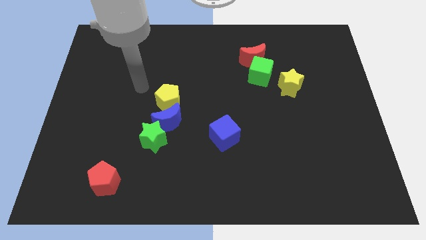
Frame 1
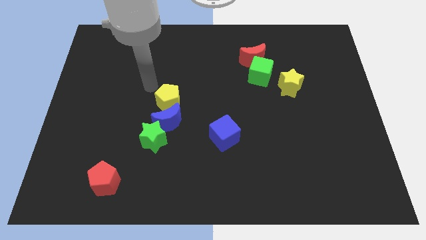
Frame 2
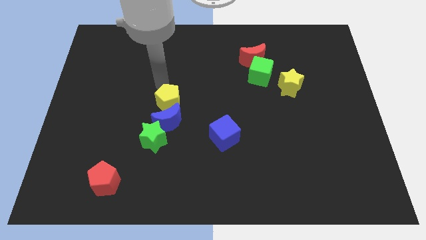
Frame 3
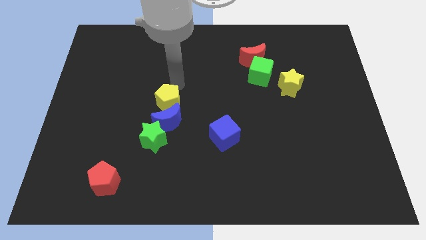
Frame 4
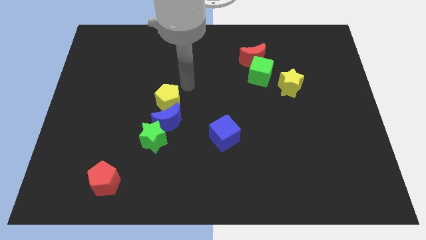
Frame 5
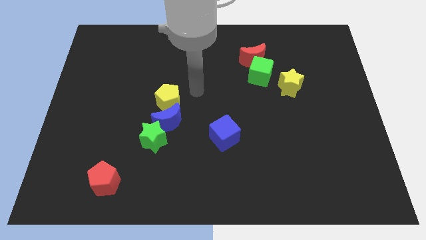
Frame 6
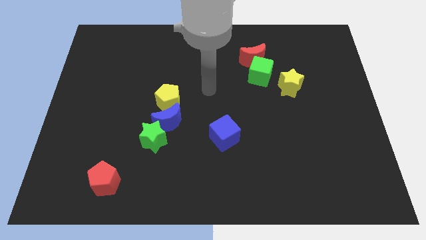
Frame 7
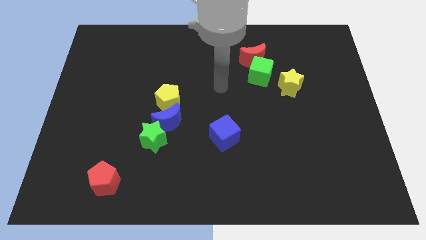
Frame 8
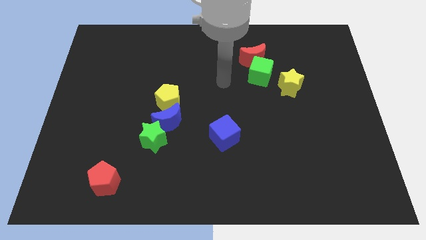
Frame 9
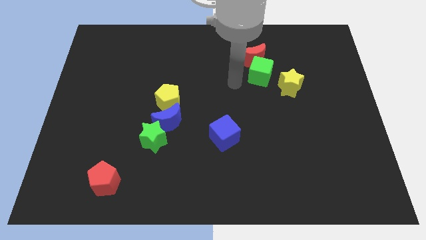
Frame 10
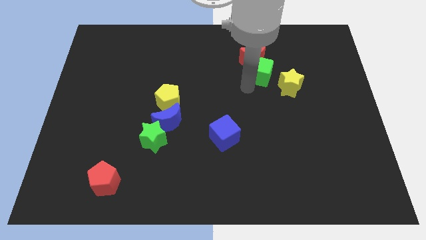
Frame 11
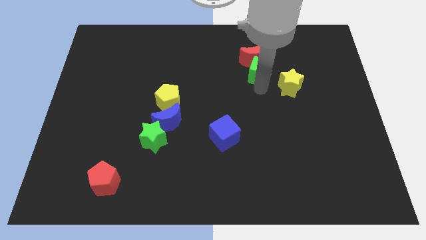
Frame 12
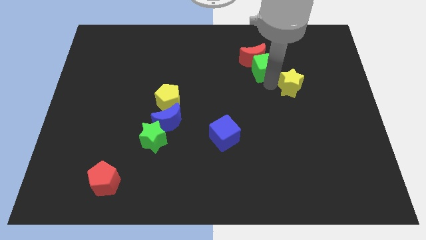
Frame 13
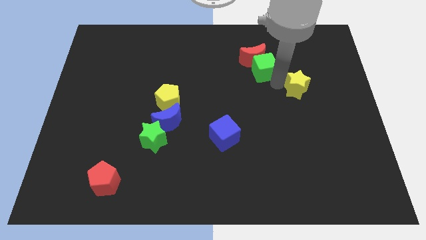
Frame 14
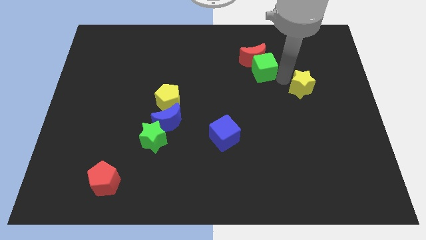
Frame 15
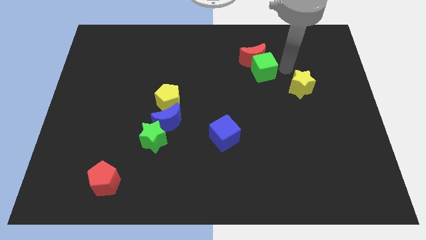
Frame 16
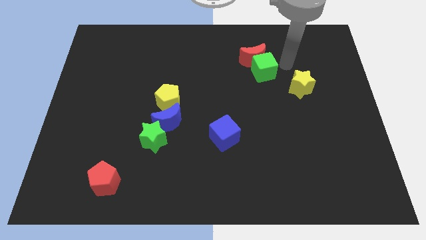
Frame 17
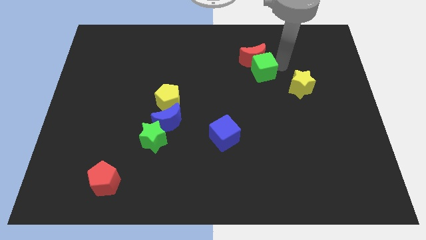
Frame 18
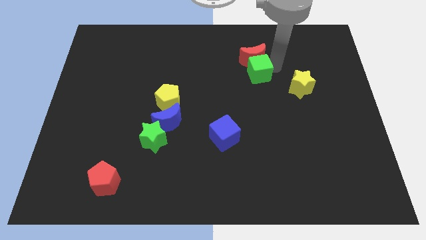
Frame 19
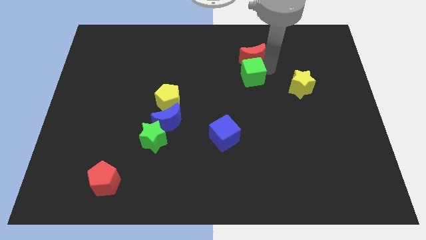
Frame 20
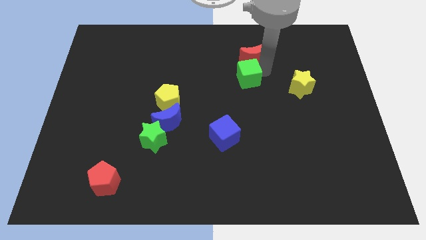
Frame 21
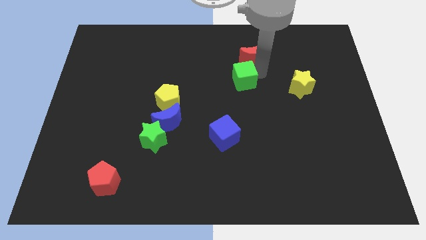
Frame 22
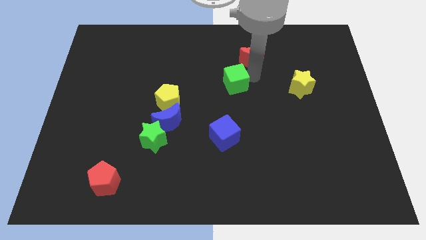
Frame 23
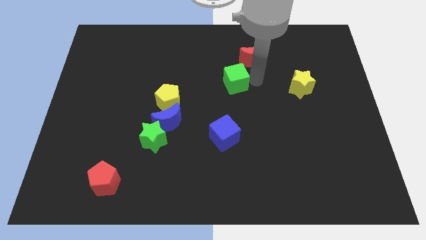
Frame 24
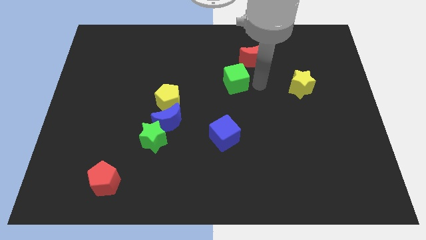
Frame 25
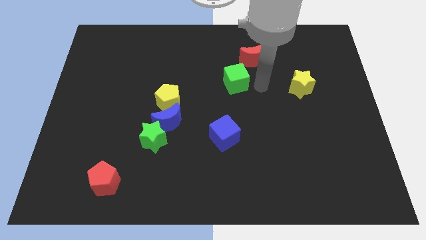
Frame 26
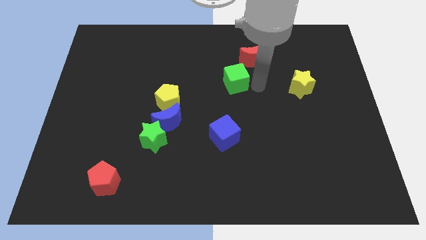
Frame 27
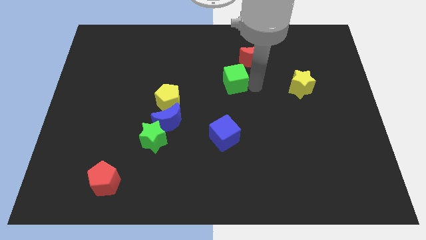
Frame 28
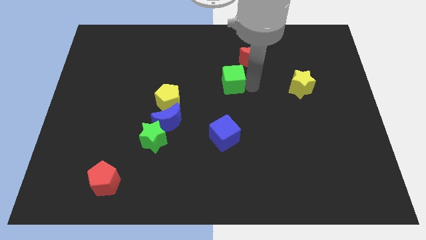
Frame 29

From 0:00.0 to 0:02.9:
push the green cube slightly left

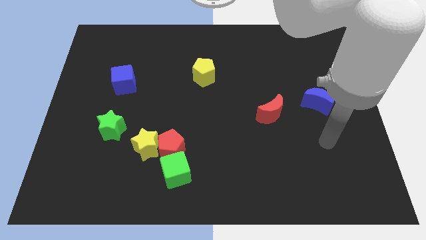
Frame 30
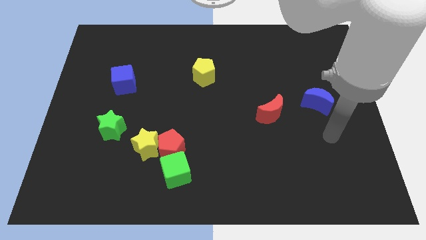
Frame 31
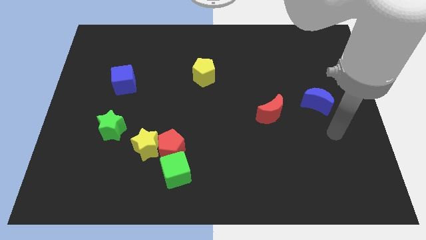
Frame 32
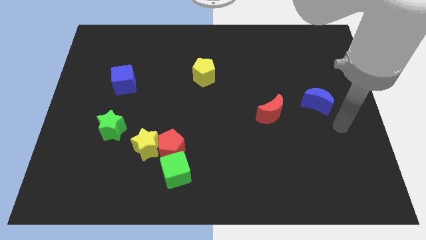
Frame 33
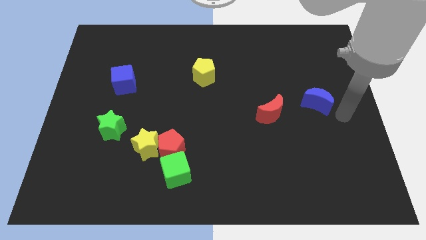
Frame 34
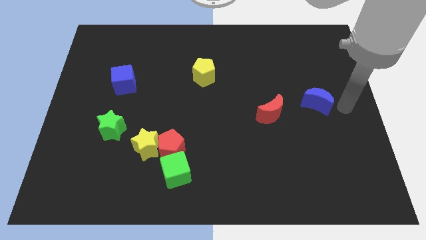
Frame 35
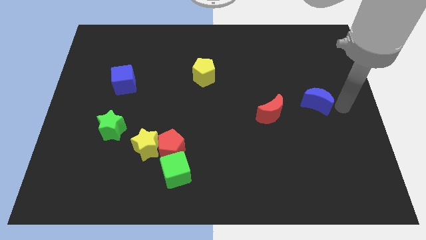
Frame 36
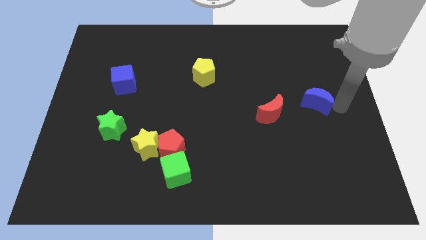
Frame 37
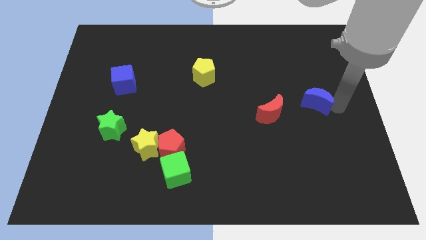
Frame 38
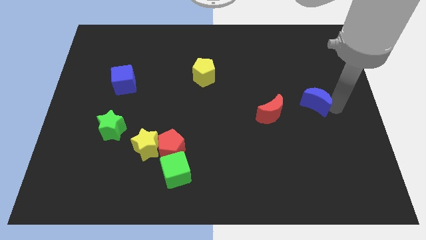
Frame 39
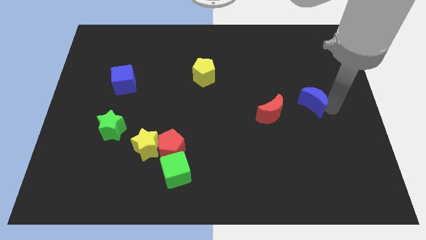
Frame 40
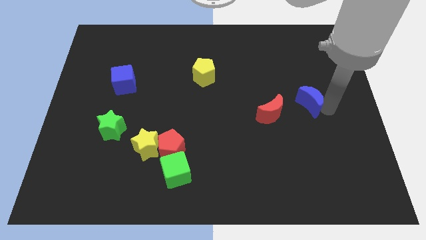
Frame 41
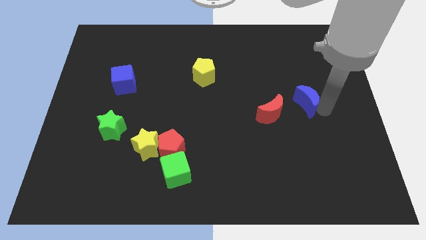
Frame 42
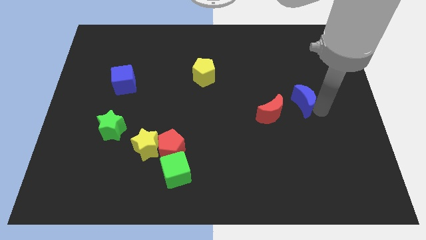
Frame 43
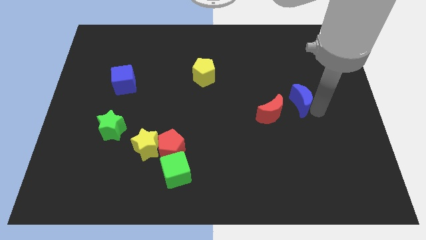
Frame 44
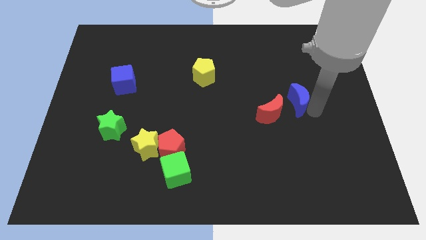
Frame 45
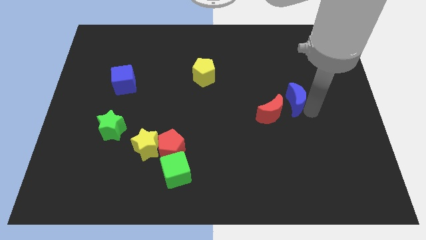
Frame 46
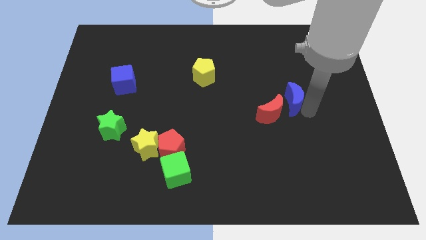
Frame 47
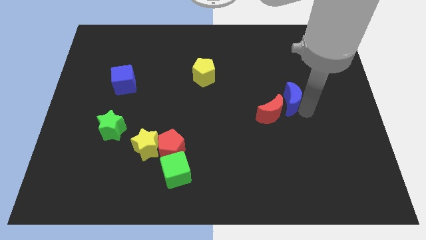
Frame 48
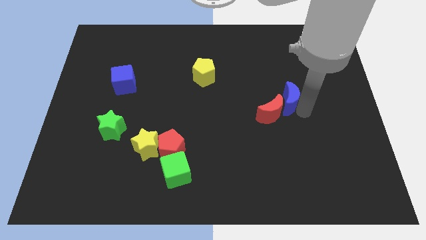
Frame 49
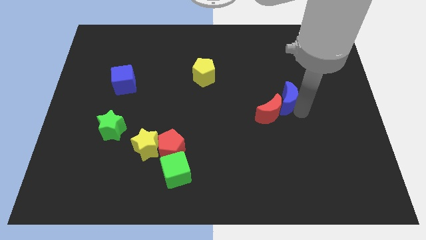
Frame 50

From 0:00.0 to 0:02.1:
move the blue moon a bit to the left

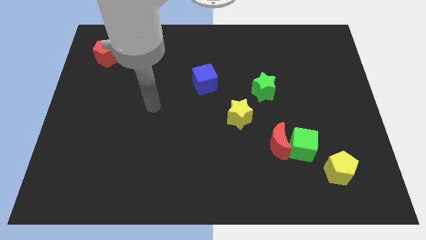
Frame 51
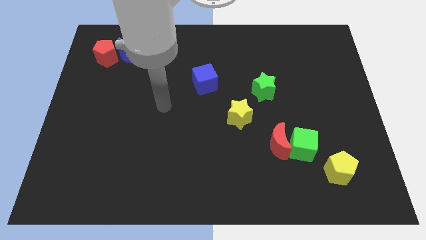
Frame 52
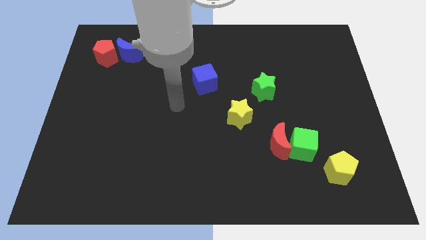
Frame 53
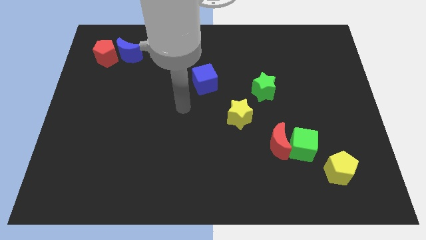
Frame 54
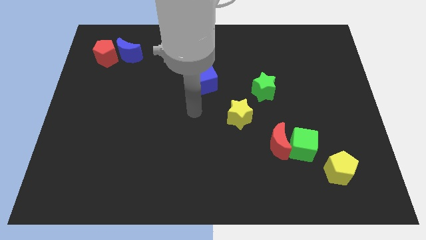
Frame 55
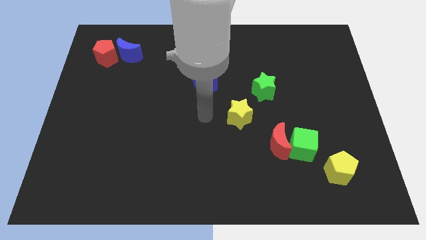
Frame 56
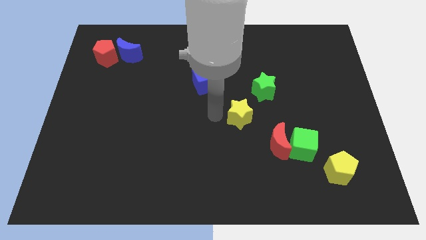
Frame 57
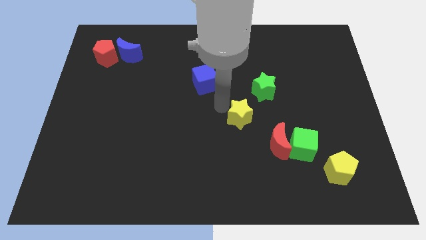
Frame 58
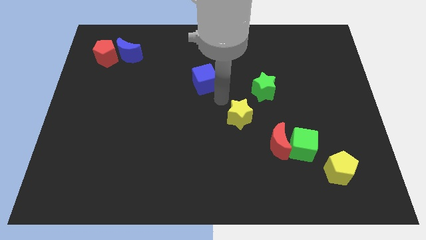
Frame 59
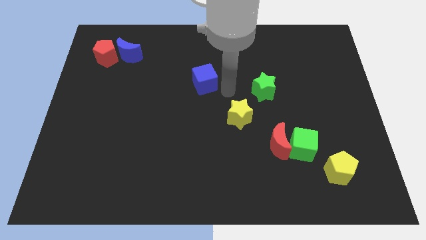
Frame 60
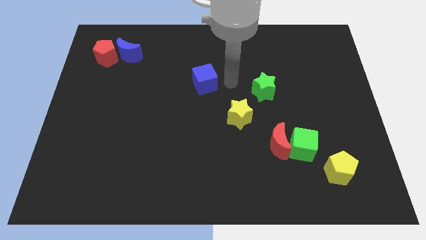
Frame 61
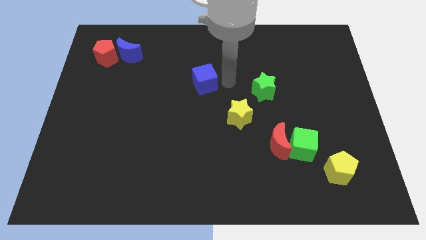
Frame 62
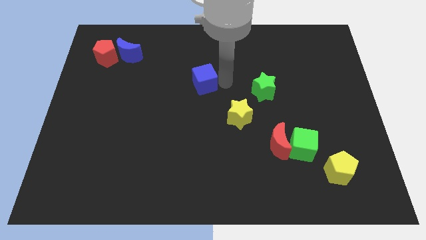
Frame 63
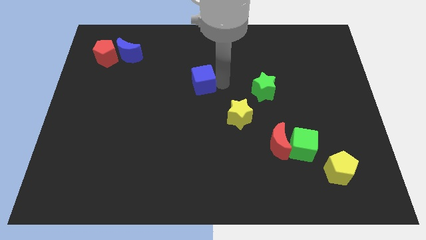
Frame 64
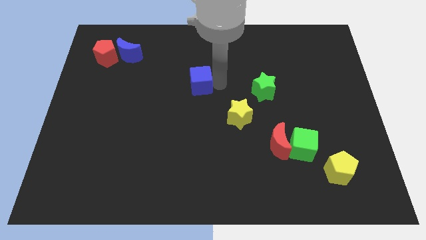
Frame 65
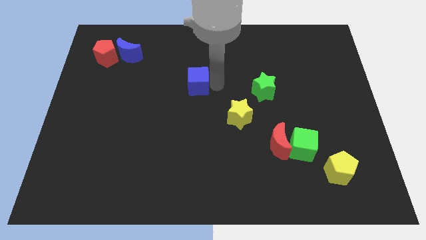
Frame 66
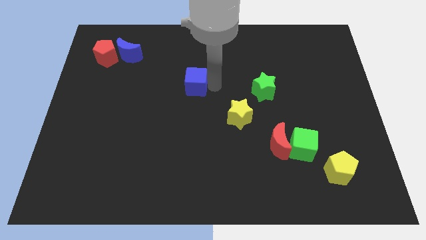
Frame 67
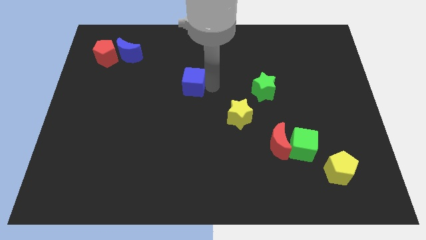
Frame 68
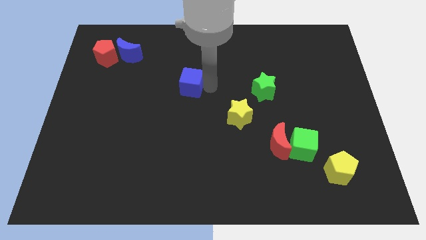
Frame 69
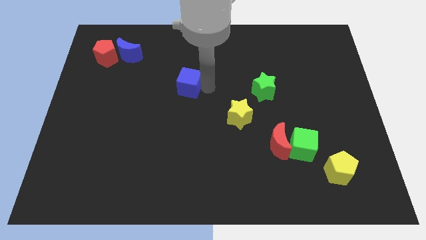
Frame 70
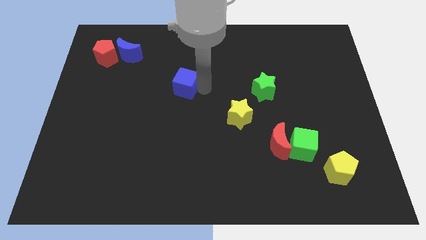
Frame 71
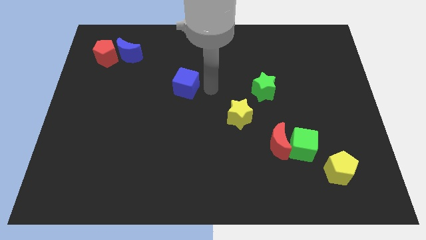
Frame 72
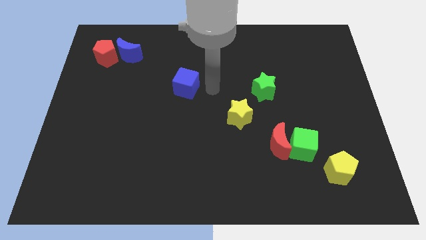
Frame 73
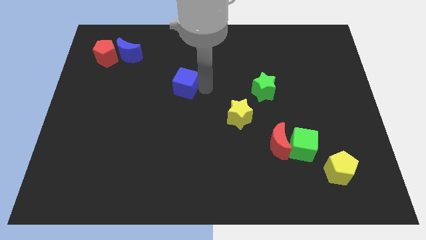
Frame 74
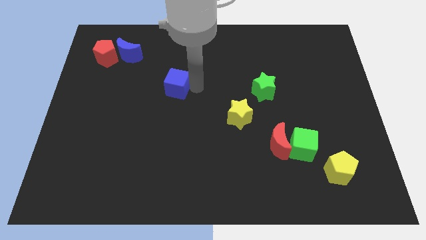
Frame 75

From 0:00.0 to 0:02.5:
move the blue cube a bit left

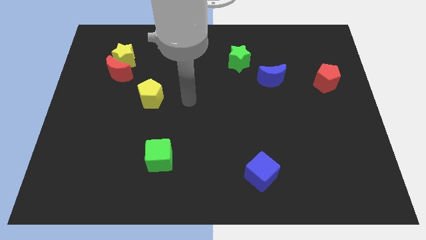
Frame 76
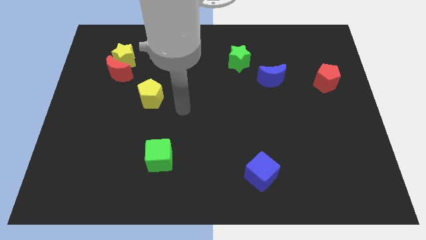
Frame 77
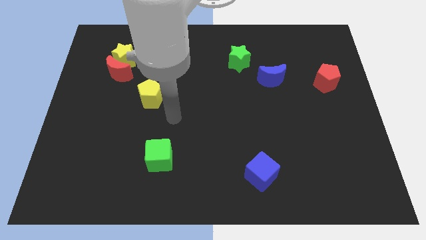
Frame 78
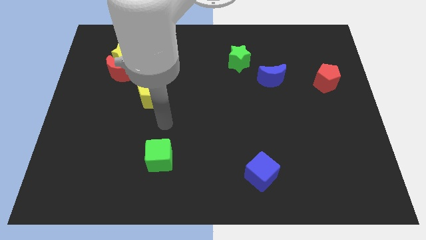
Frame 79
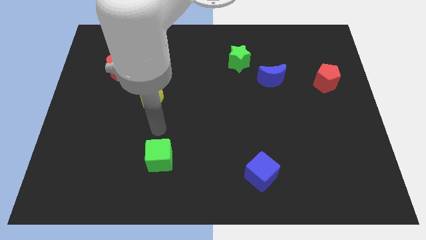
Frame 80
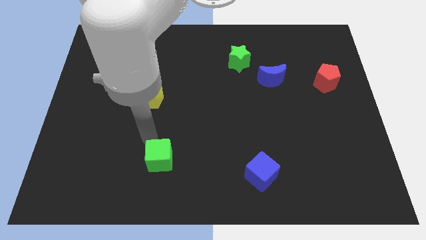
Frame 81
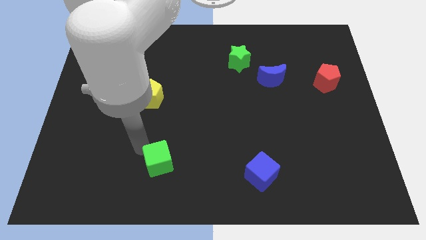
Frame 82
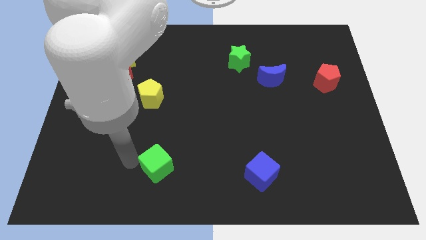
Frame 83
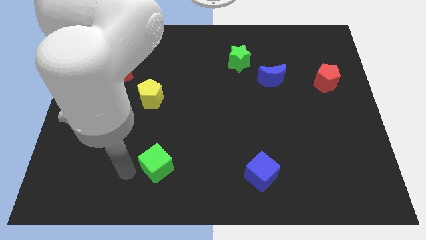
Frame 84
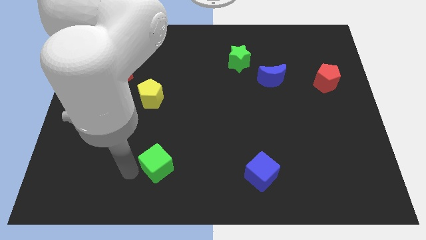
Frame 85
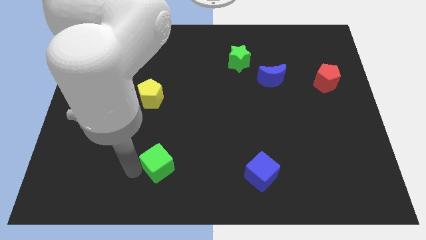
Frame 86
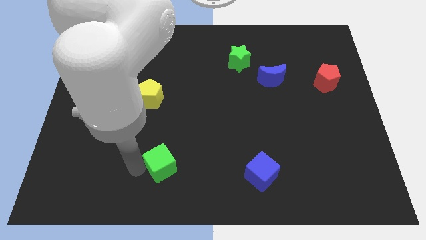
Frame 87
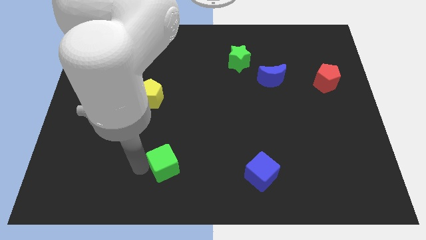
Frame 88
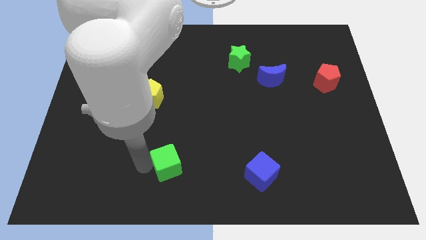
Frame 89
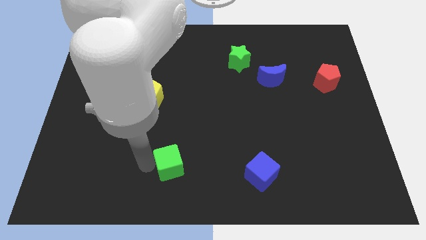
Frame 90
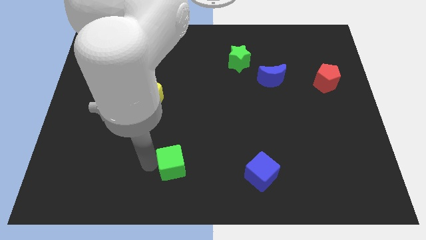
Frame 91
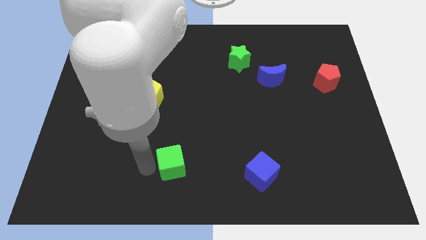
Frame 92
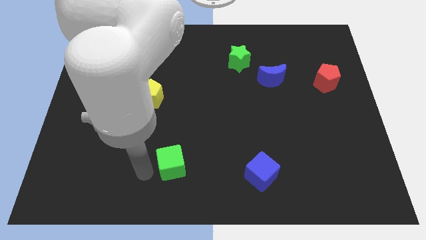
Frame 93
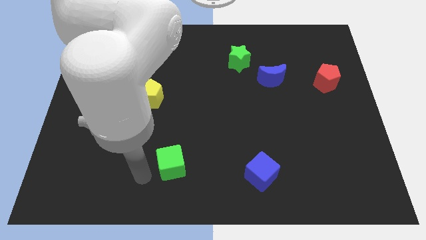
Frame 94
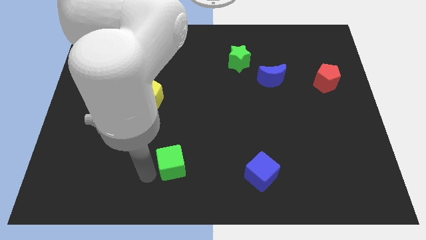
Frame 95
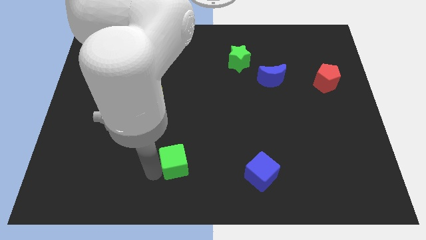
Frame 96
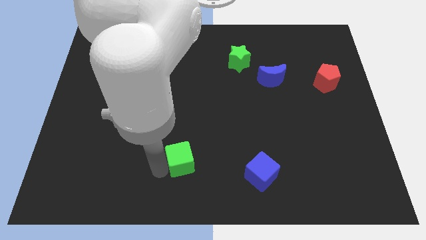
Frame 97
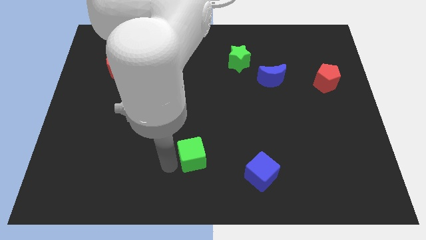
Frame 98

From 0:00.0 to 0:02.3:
push the green cube a little bit right
